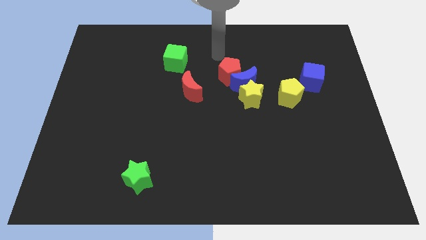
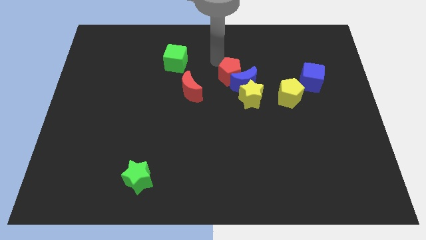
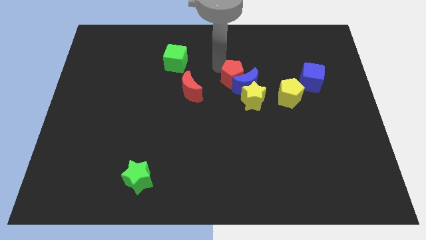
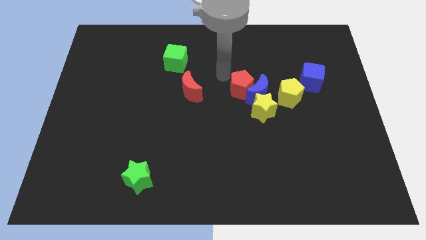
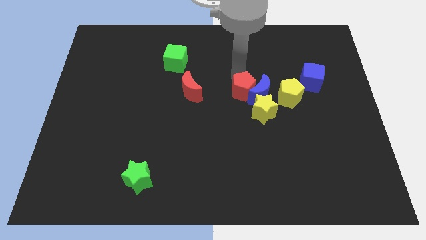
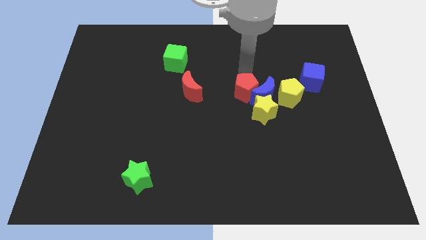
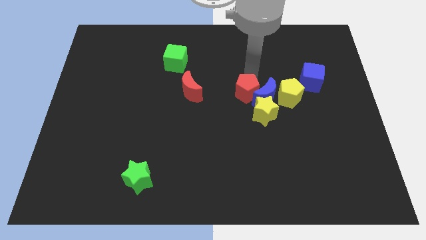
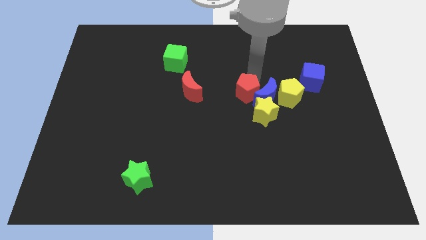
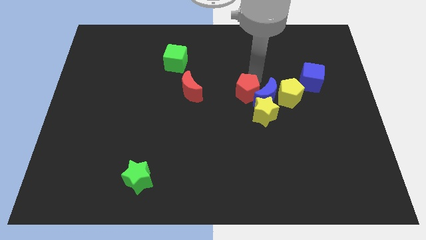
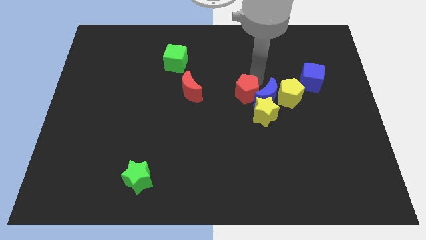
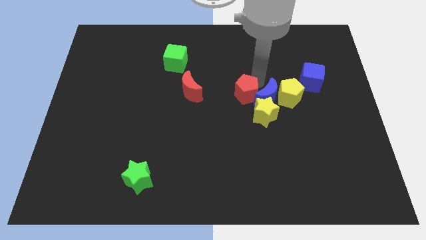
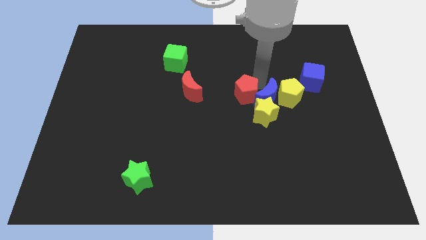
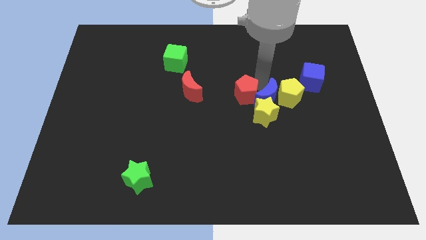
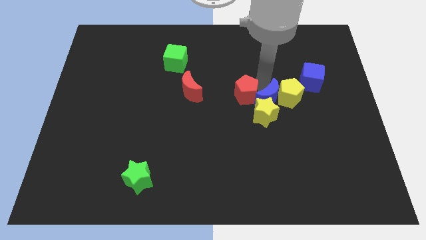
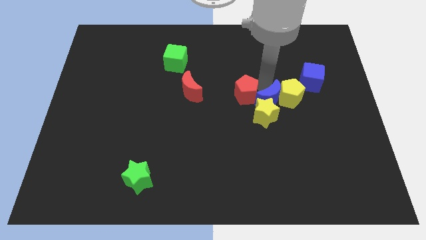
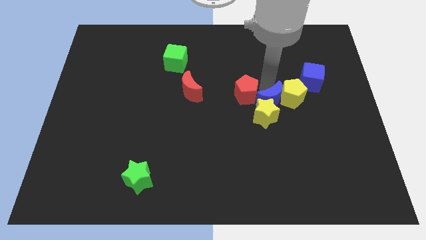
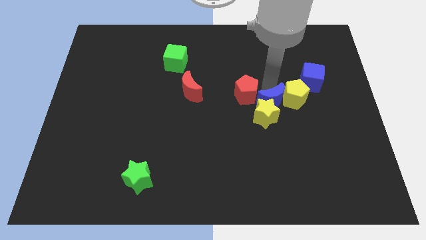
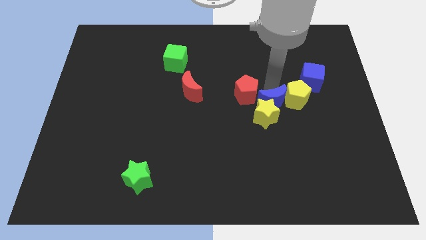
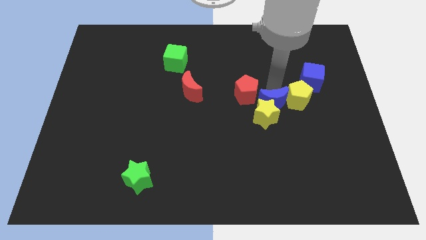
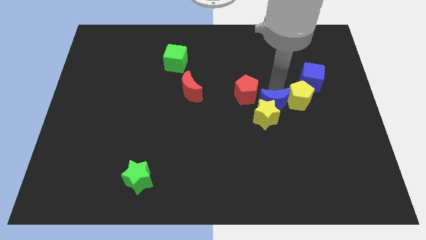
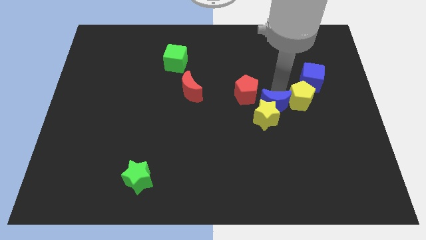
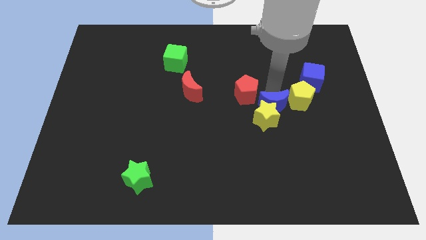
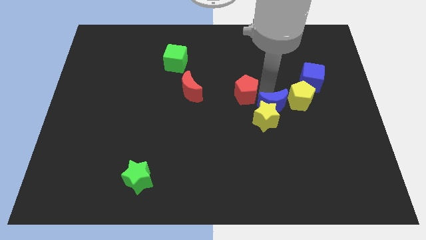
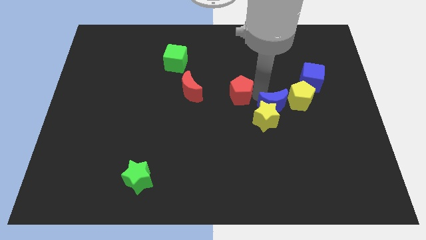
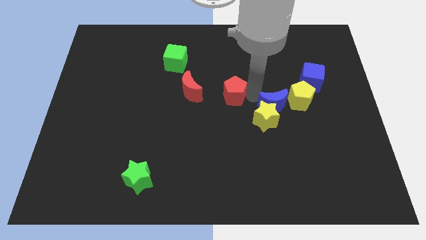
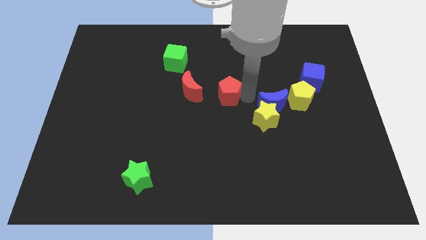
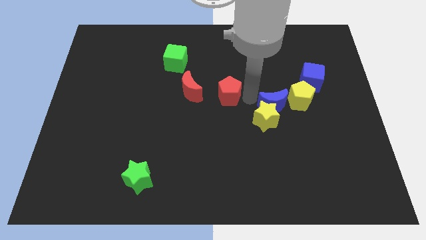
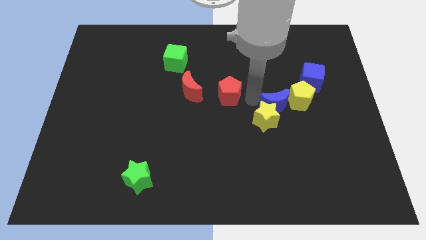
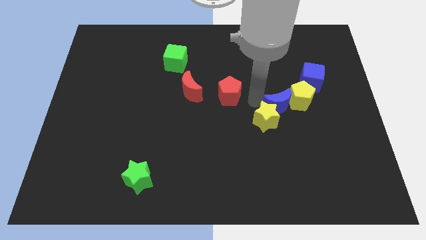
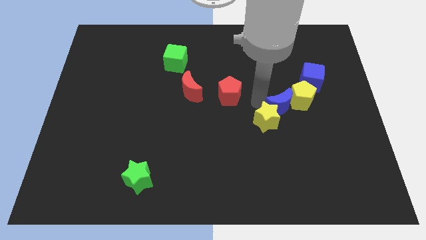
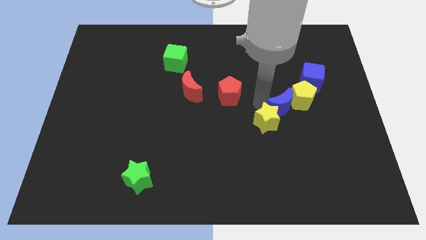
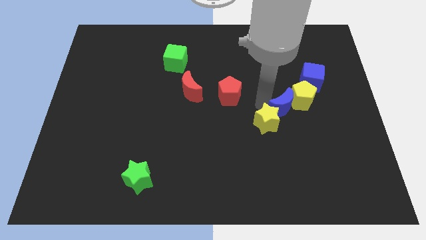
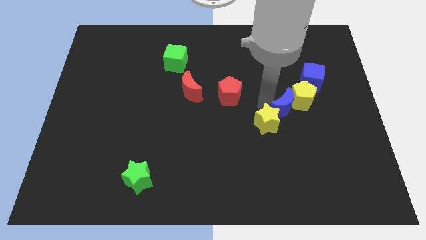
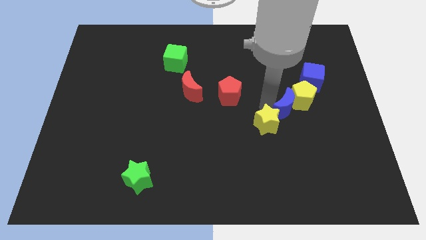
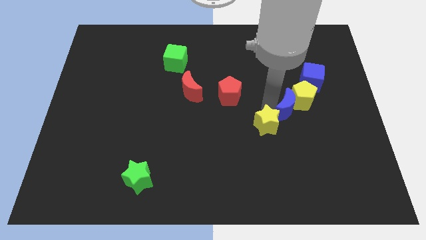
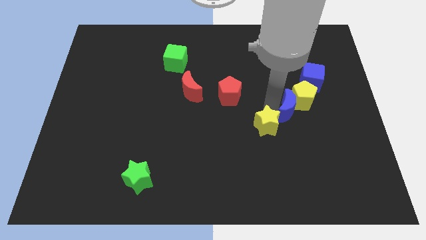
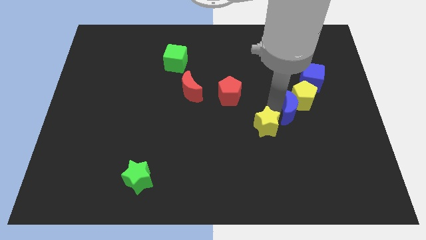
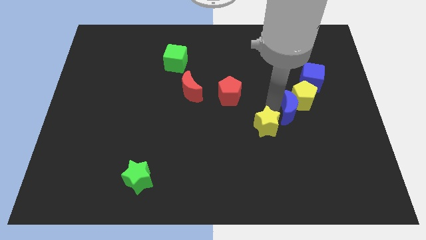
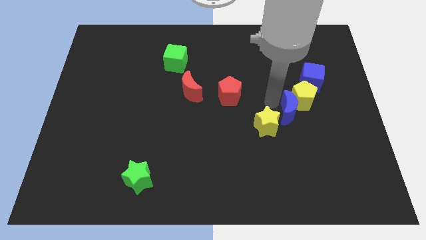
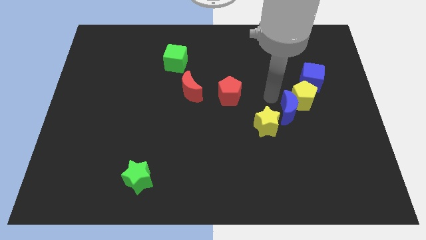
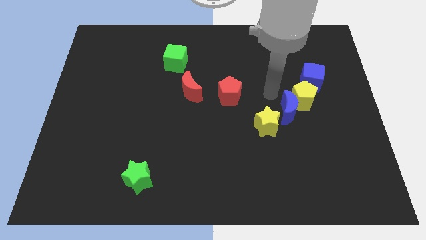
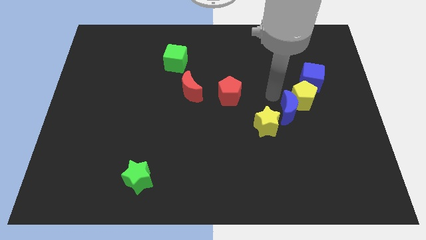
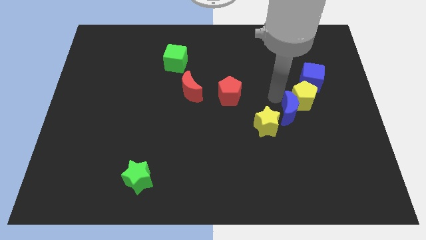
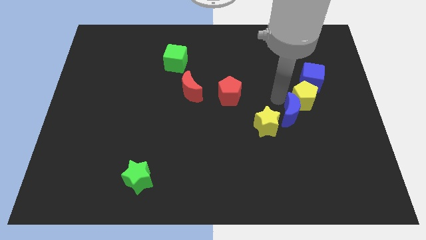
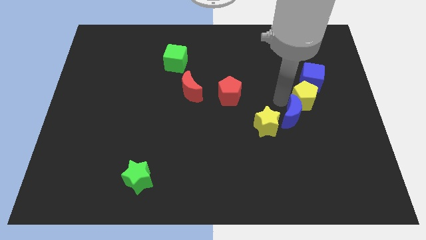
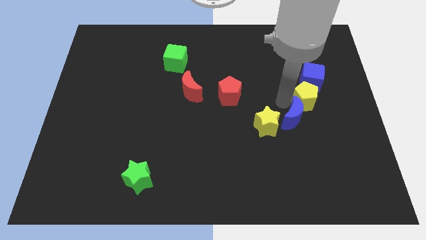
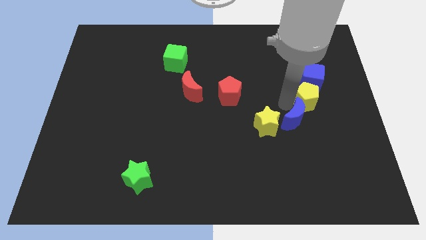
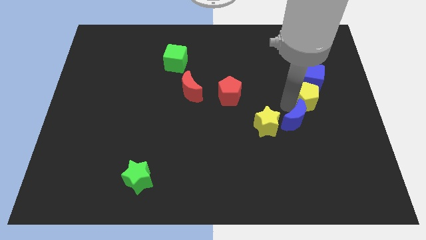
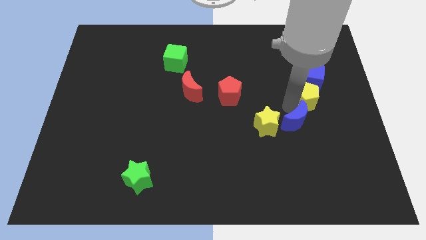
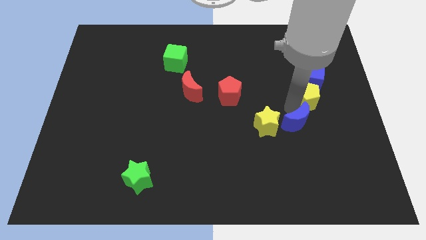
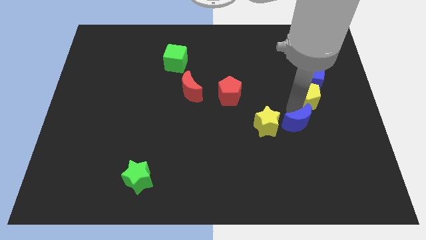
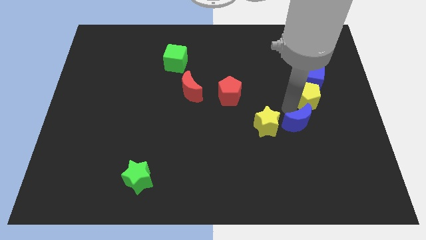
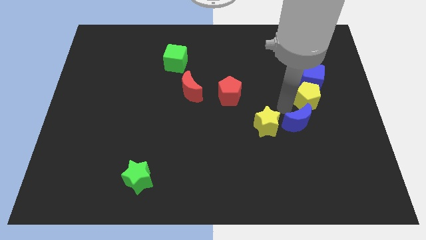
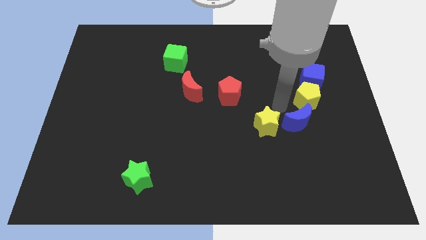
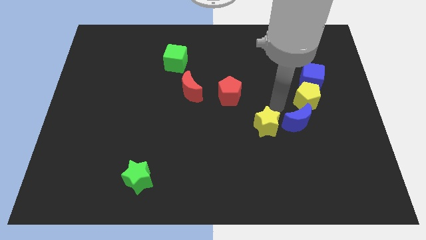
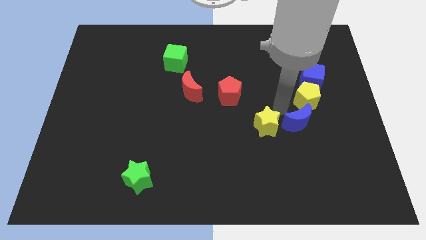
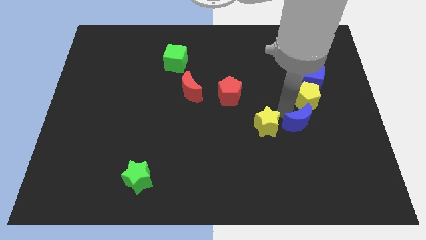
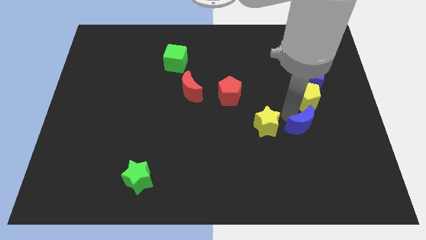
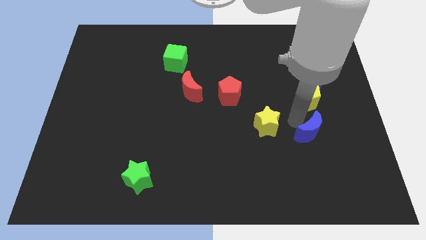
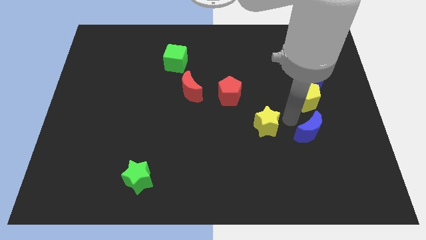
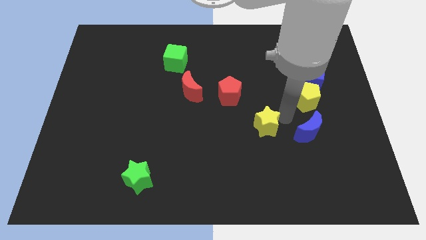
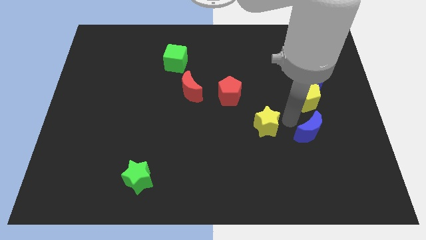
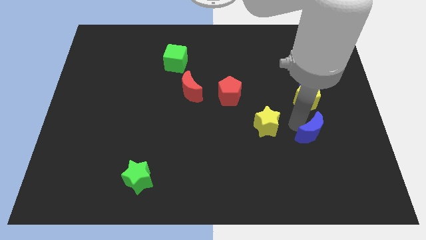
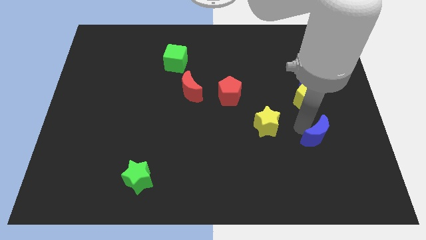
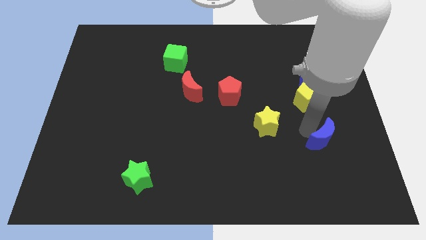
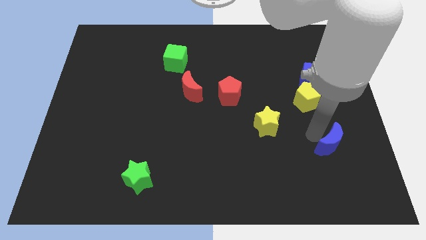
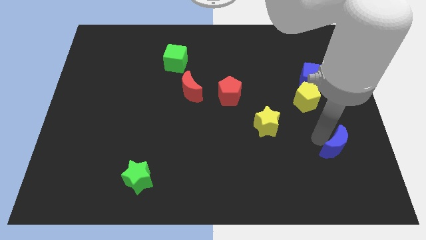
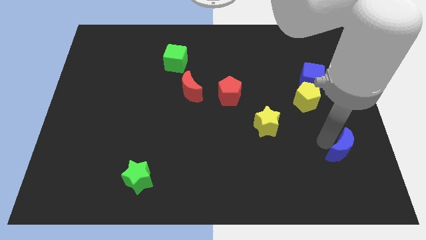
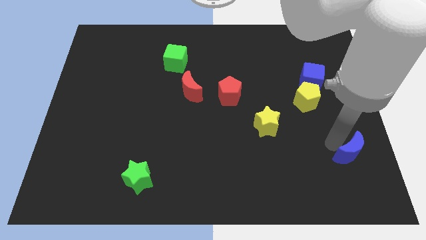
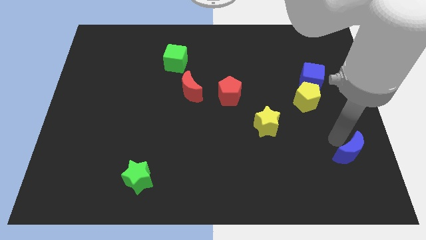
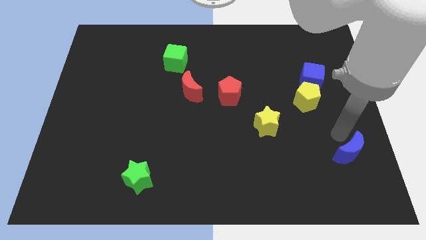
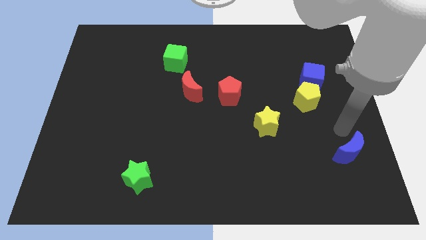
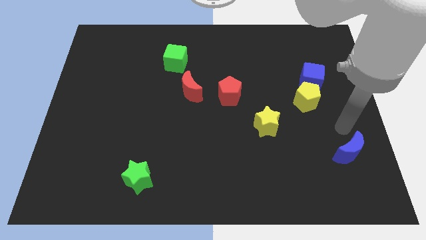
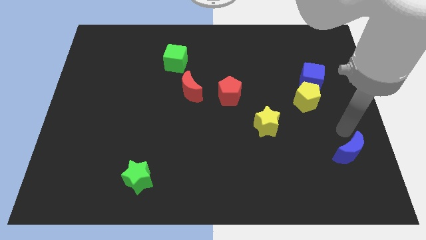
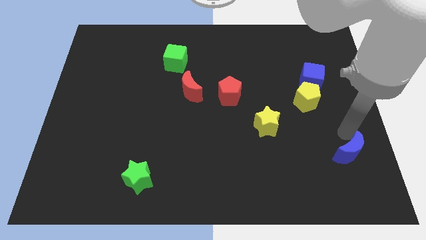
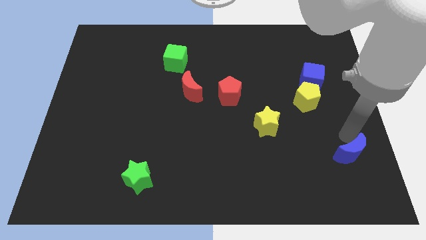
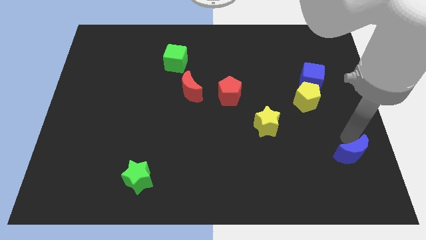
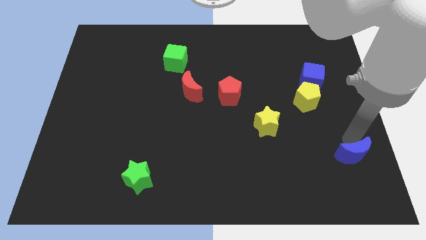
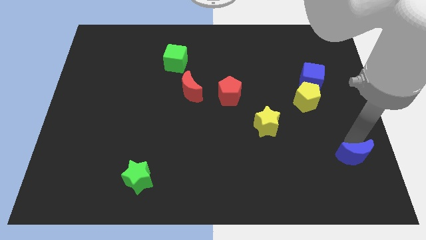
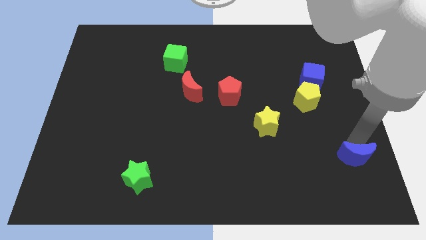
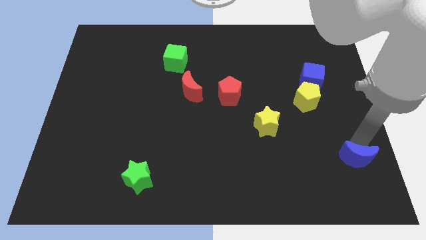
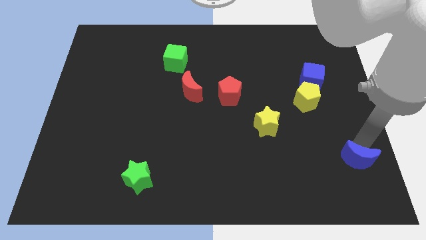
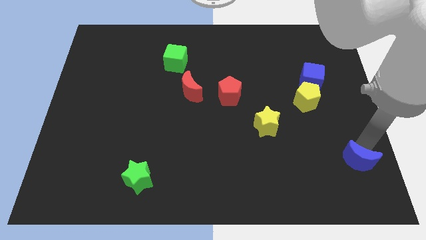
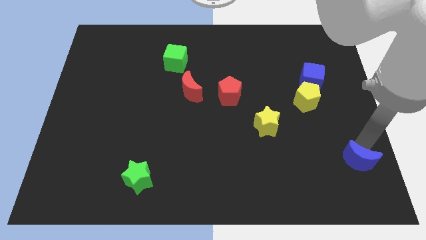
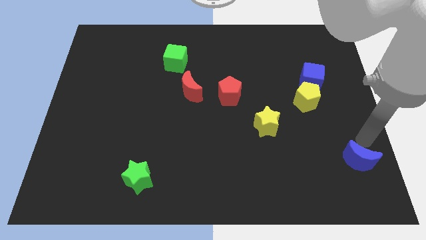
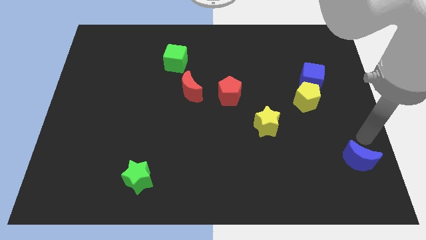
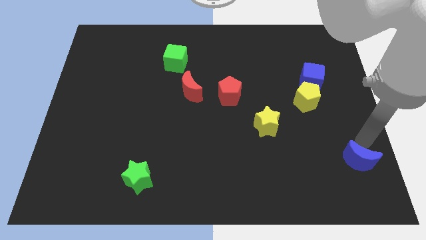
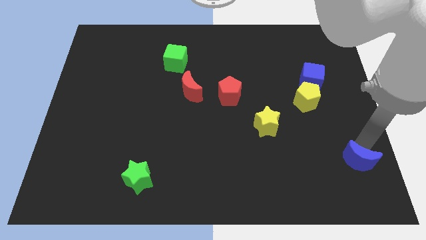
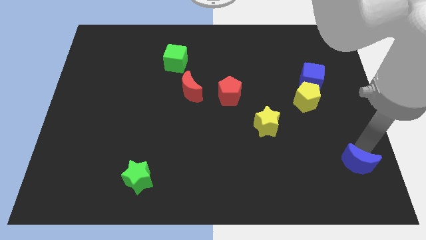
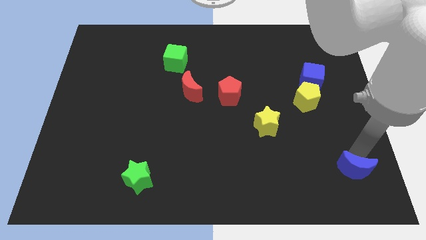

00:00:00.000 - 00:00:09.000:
slide the blue moon to the bottom right
